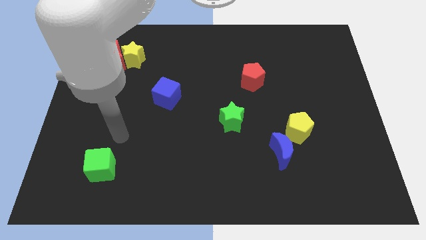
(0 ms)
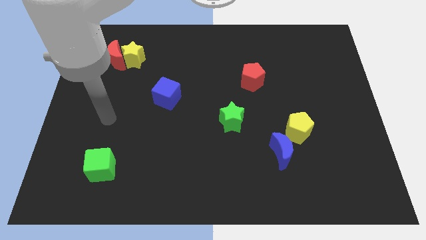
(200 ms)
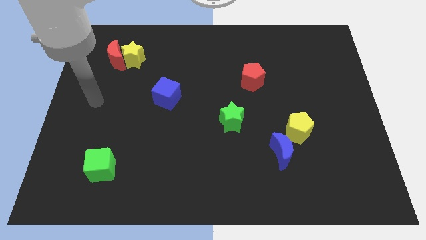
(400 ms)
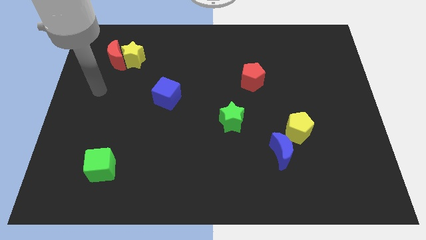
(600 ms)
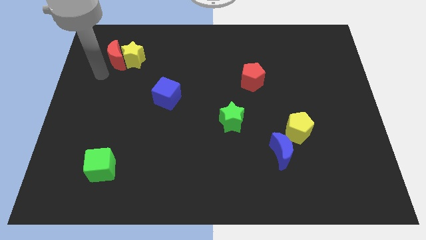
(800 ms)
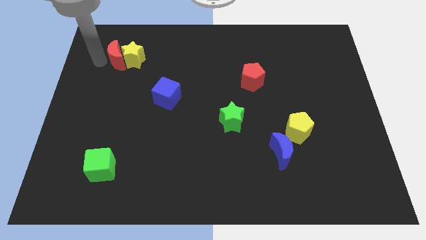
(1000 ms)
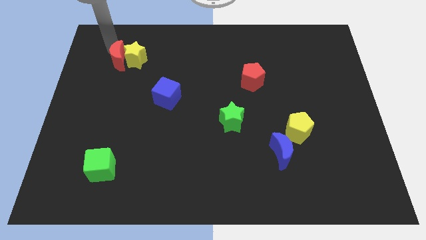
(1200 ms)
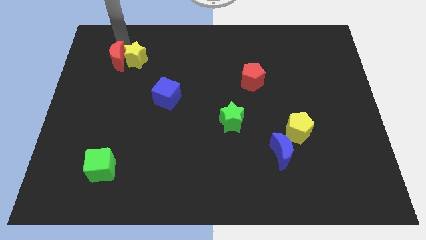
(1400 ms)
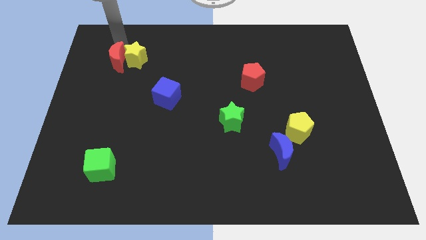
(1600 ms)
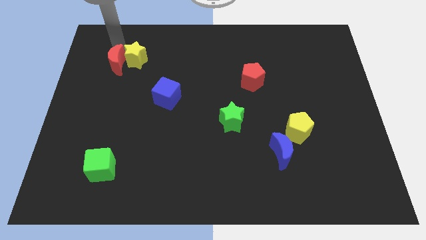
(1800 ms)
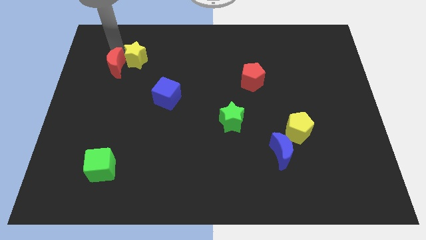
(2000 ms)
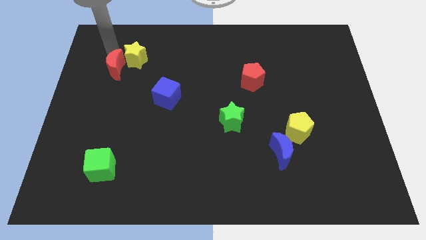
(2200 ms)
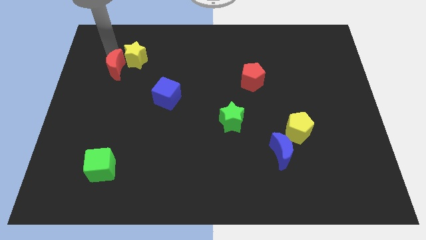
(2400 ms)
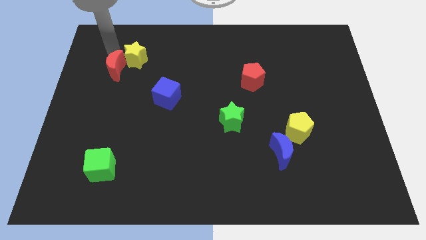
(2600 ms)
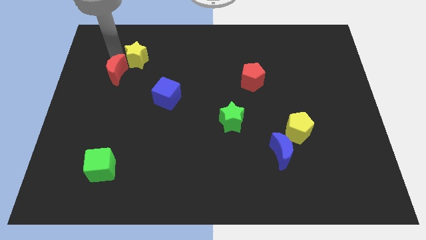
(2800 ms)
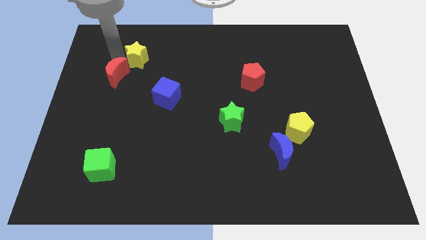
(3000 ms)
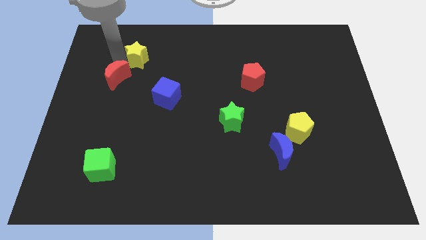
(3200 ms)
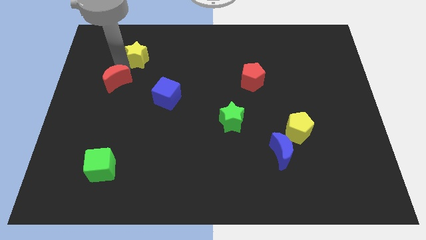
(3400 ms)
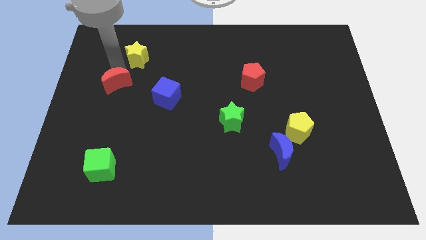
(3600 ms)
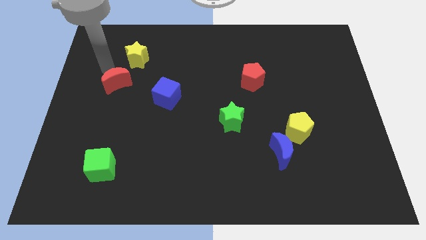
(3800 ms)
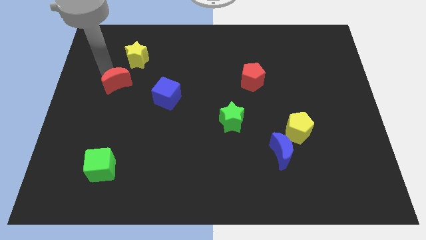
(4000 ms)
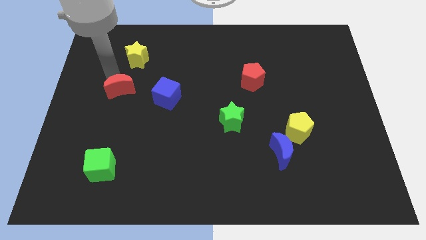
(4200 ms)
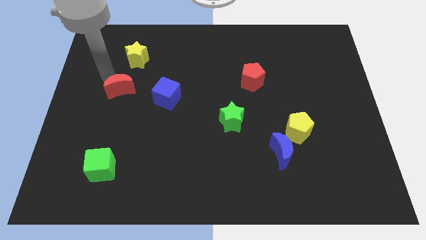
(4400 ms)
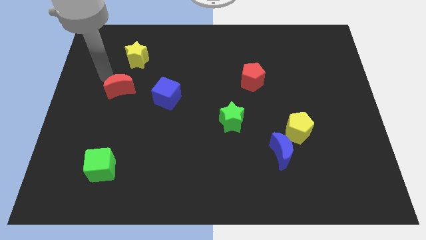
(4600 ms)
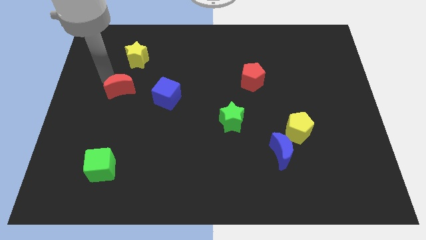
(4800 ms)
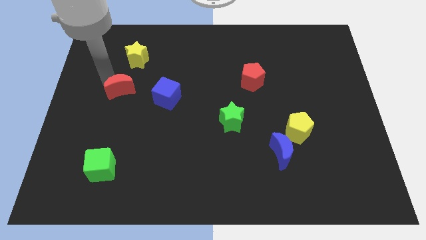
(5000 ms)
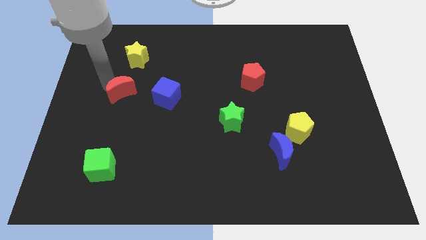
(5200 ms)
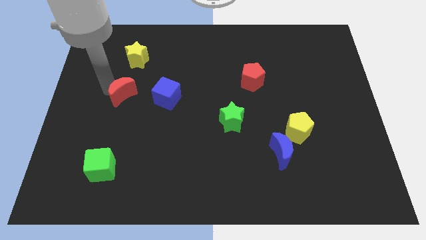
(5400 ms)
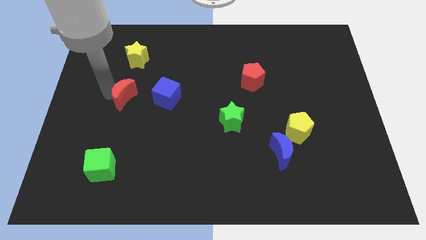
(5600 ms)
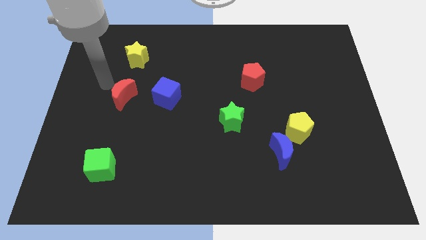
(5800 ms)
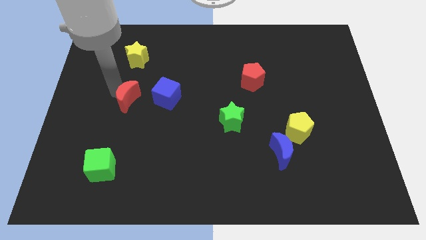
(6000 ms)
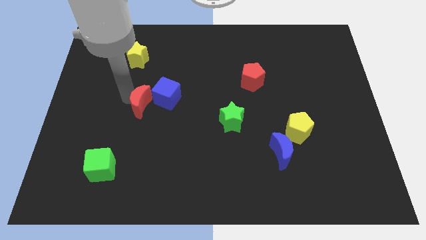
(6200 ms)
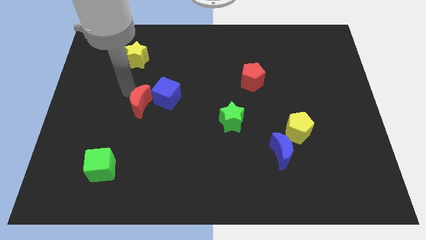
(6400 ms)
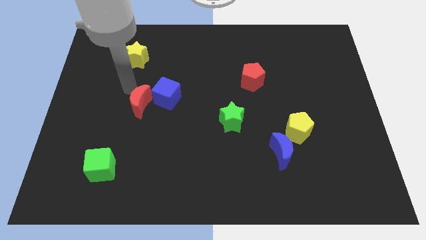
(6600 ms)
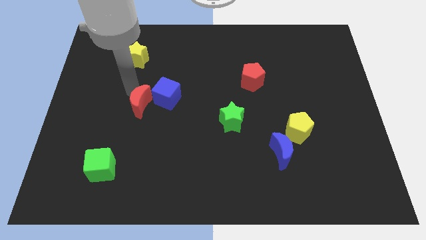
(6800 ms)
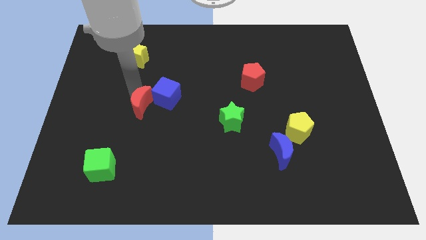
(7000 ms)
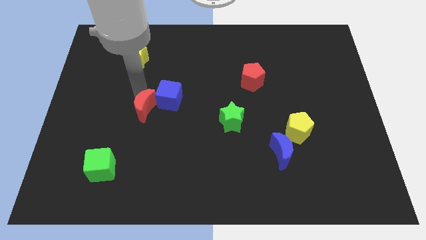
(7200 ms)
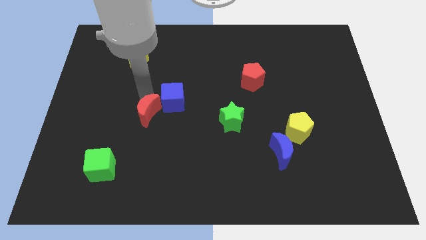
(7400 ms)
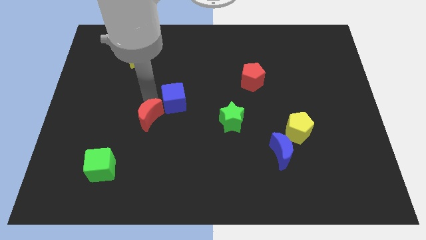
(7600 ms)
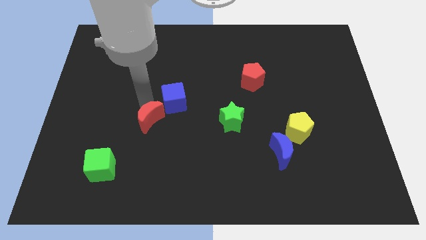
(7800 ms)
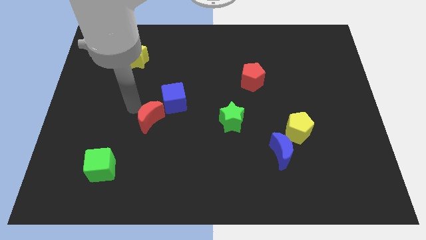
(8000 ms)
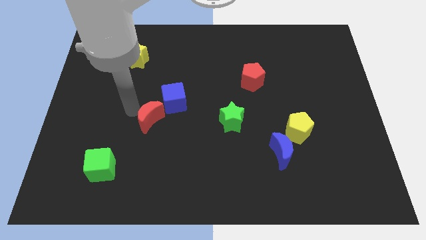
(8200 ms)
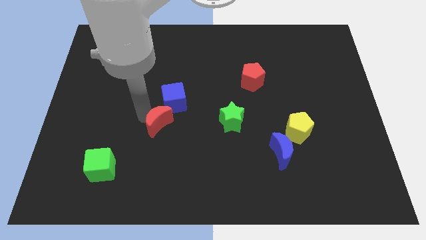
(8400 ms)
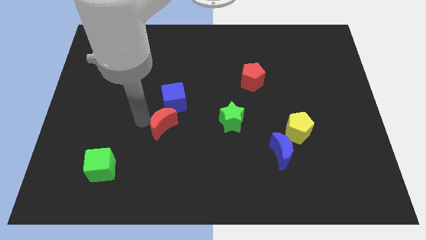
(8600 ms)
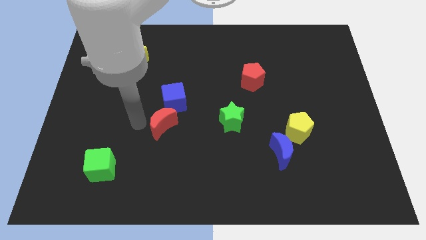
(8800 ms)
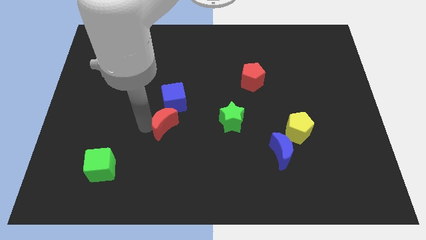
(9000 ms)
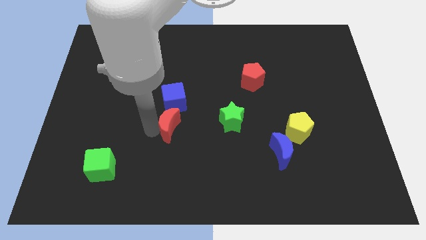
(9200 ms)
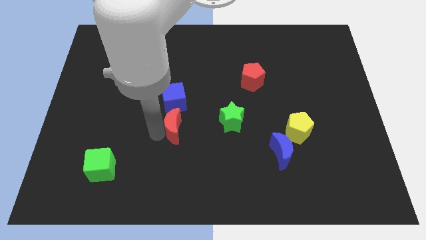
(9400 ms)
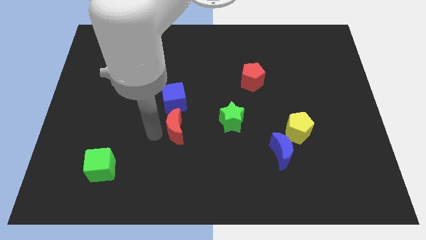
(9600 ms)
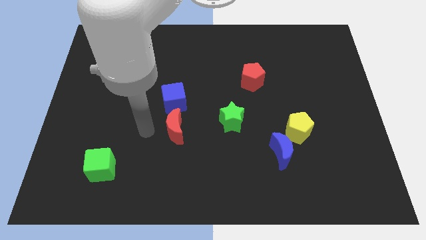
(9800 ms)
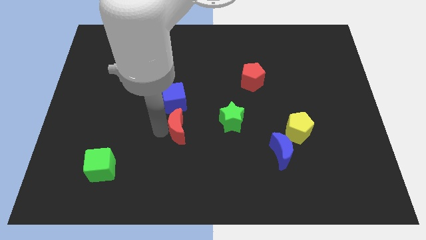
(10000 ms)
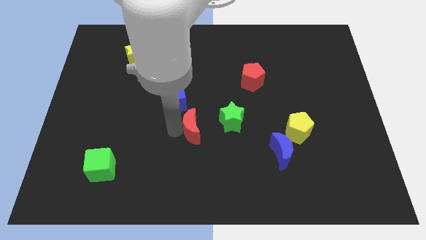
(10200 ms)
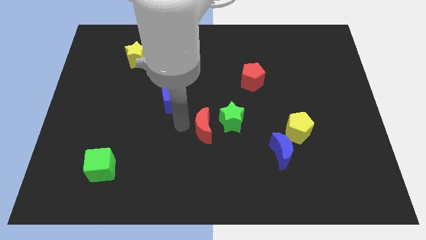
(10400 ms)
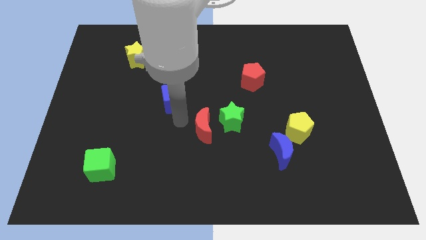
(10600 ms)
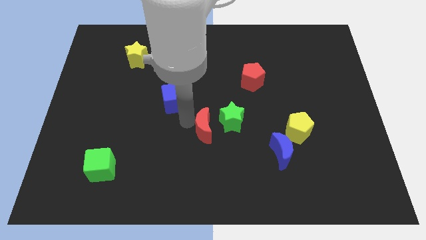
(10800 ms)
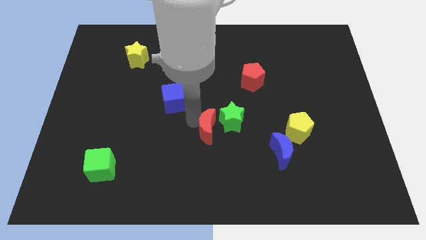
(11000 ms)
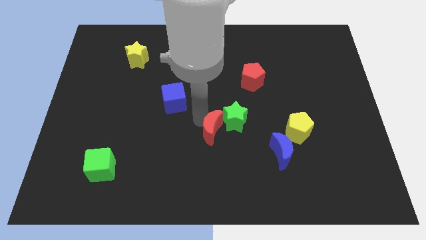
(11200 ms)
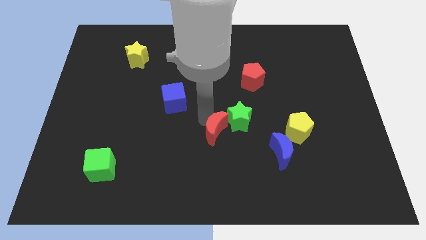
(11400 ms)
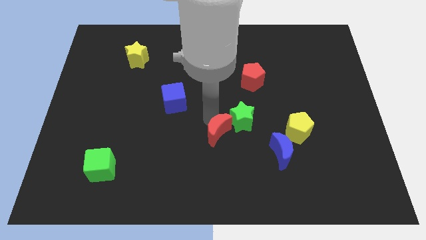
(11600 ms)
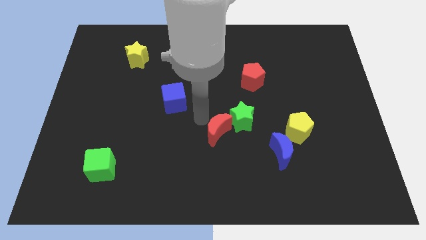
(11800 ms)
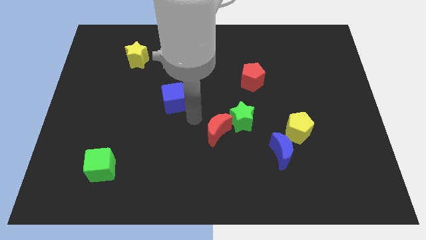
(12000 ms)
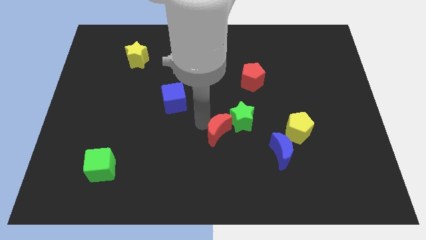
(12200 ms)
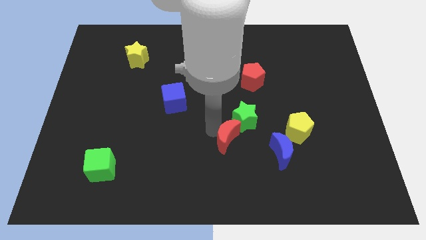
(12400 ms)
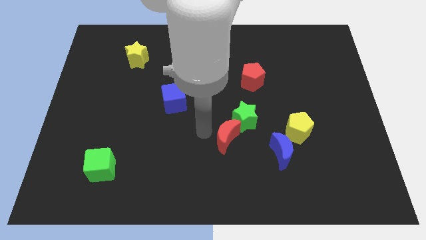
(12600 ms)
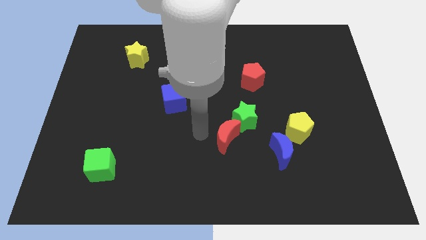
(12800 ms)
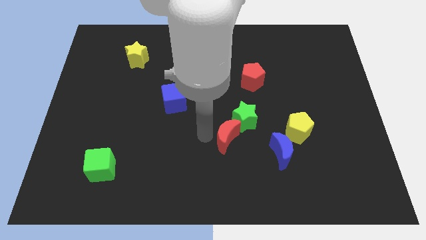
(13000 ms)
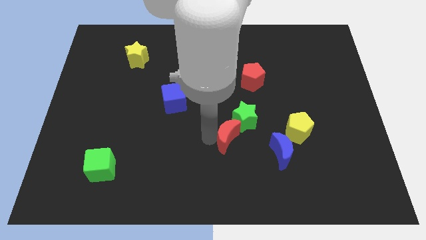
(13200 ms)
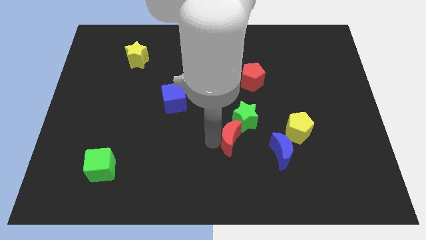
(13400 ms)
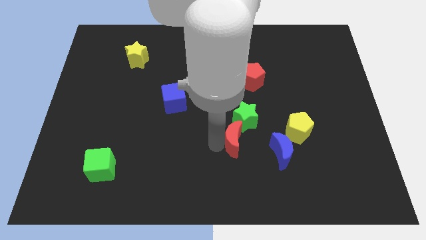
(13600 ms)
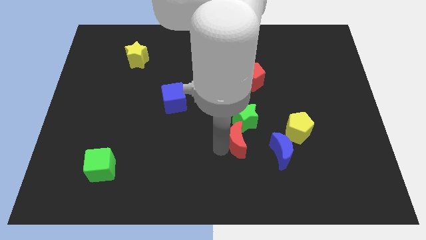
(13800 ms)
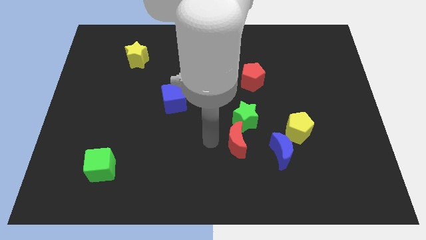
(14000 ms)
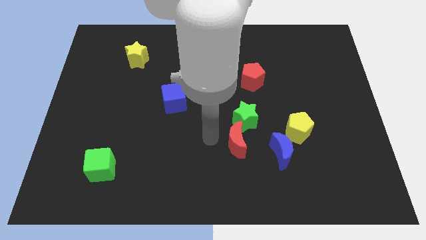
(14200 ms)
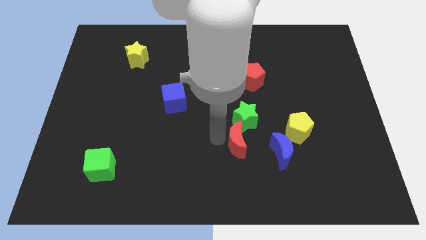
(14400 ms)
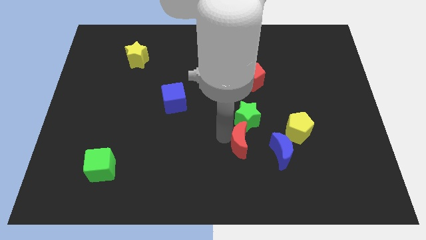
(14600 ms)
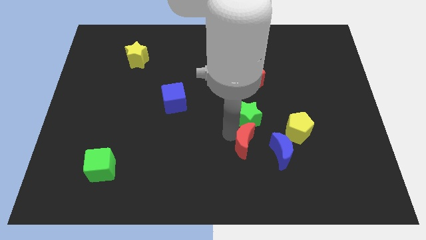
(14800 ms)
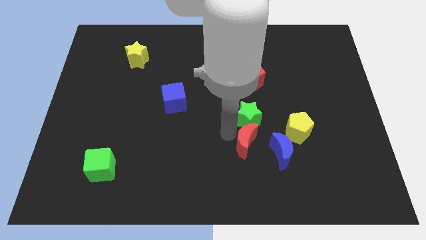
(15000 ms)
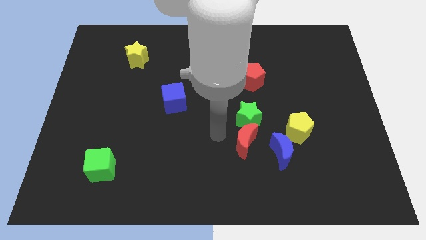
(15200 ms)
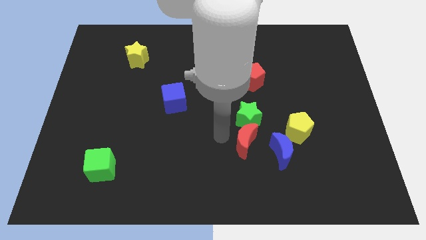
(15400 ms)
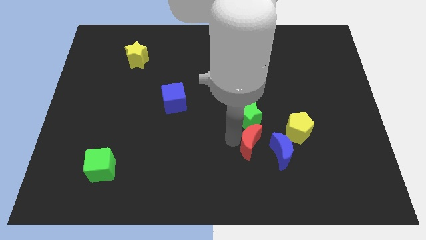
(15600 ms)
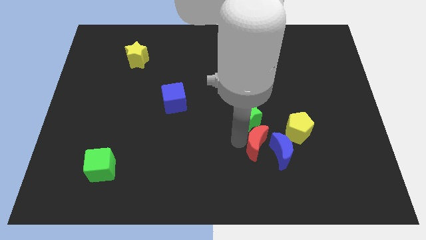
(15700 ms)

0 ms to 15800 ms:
move the red moon next to the blue moon
